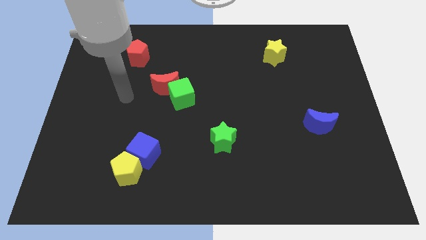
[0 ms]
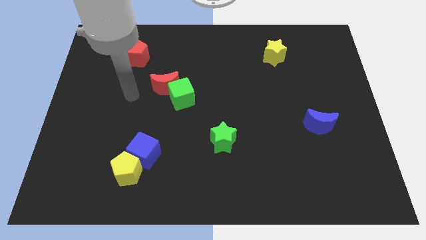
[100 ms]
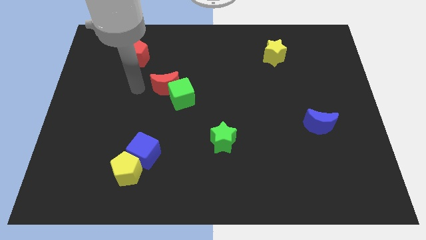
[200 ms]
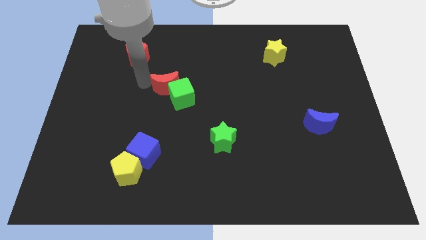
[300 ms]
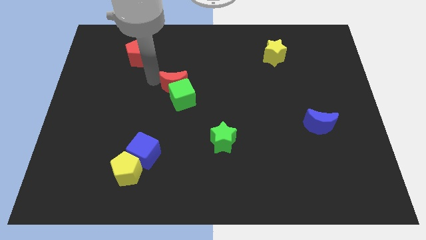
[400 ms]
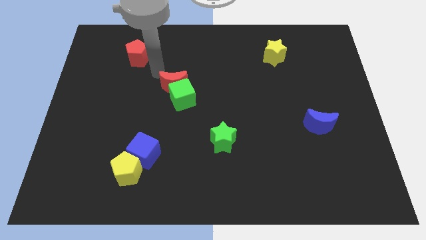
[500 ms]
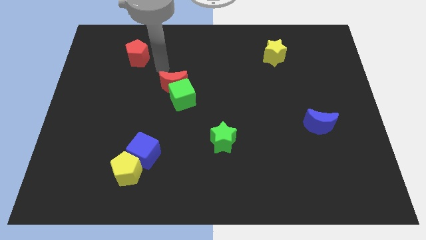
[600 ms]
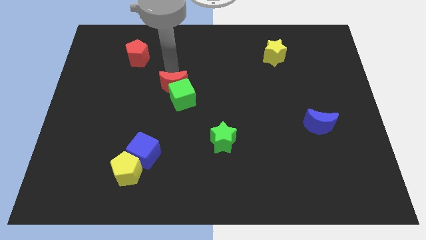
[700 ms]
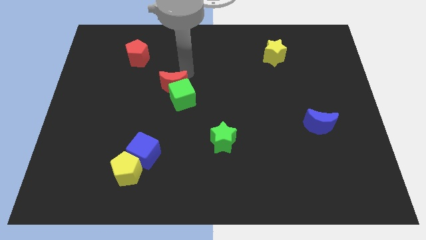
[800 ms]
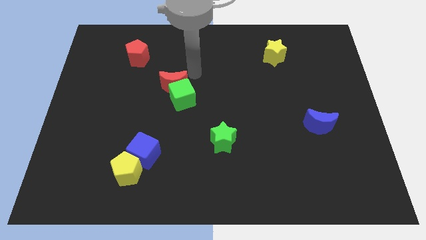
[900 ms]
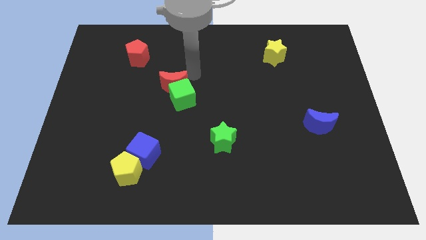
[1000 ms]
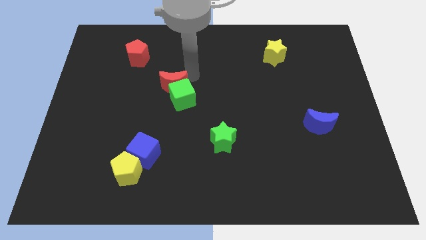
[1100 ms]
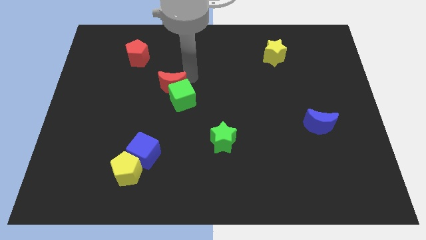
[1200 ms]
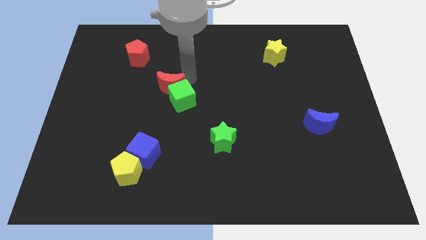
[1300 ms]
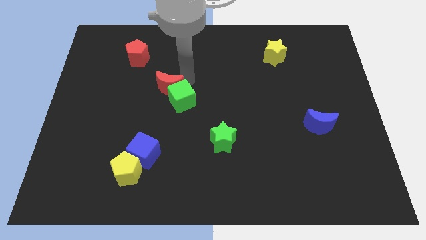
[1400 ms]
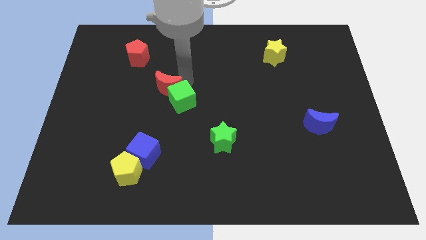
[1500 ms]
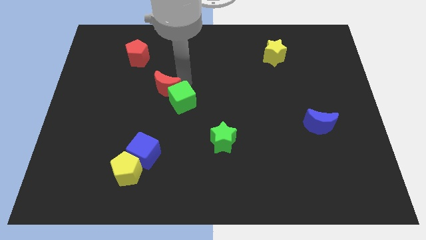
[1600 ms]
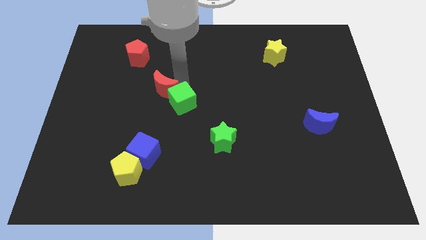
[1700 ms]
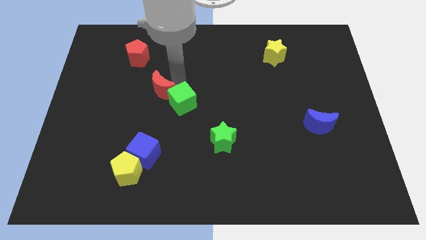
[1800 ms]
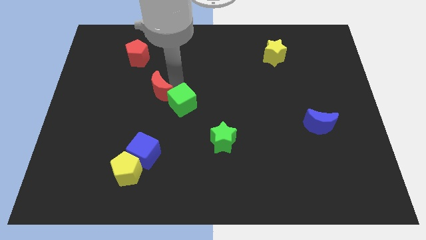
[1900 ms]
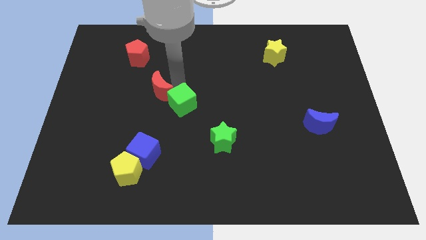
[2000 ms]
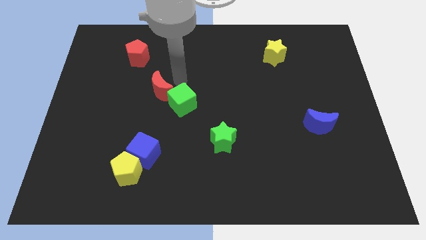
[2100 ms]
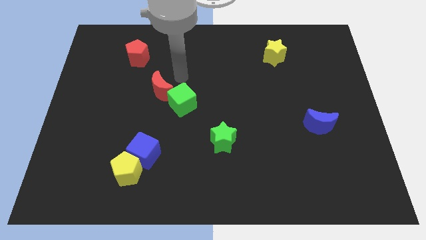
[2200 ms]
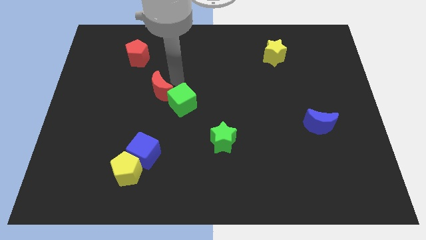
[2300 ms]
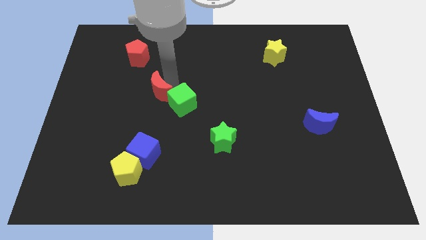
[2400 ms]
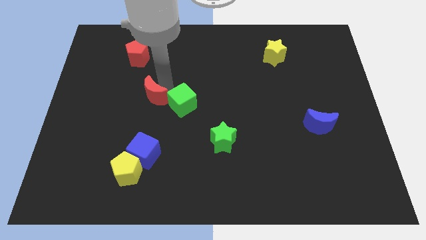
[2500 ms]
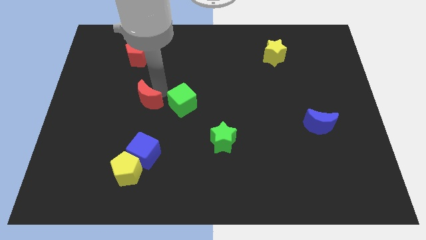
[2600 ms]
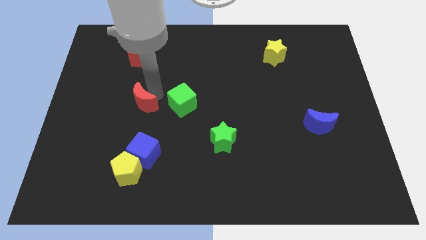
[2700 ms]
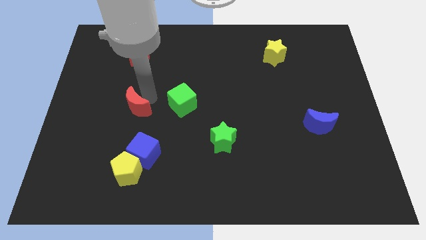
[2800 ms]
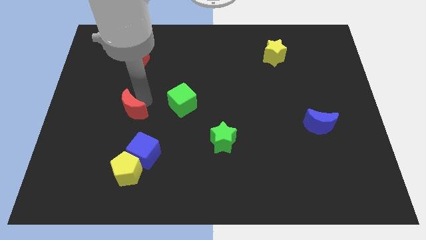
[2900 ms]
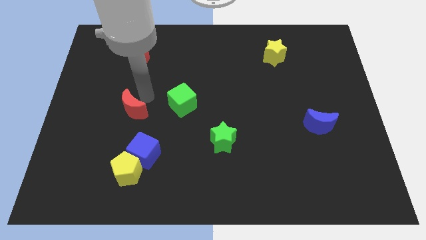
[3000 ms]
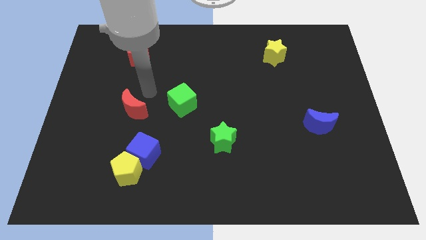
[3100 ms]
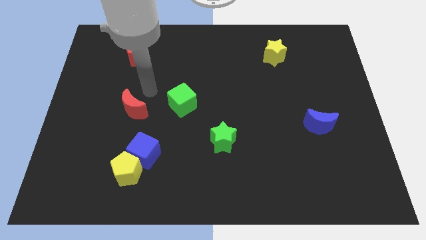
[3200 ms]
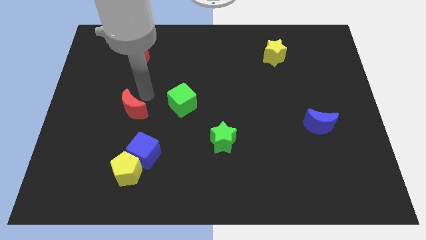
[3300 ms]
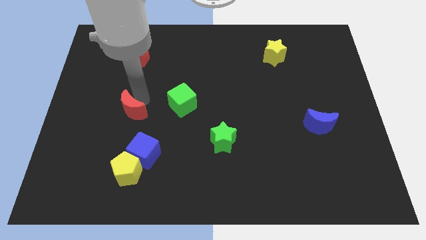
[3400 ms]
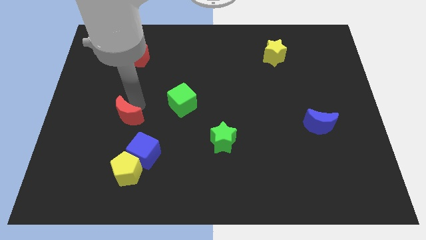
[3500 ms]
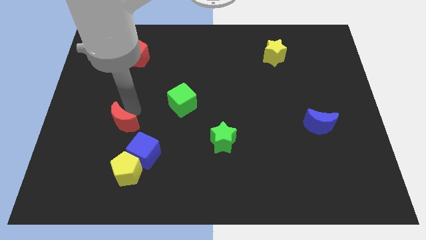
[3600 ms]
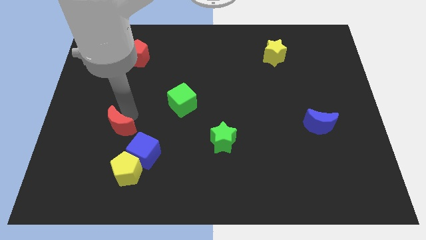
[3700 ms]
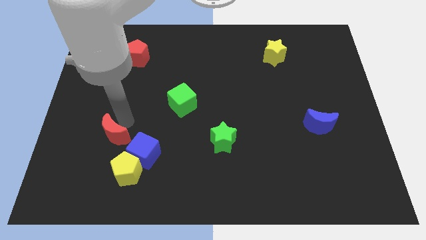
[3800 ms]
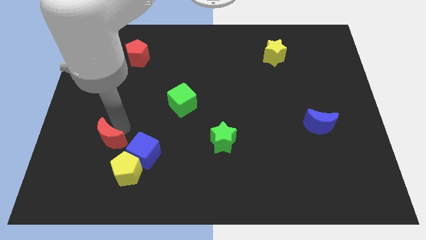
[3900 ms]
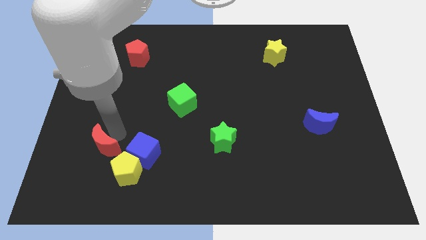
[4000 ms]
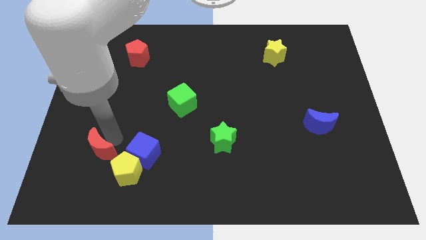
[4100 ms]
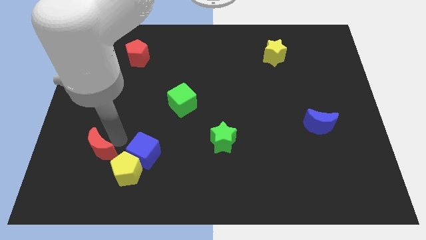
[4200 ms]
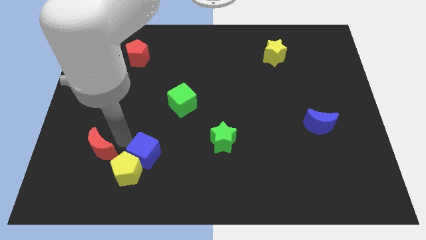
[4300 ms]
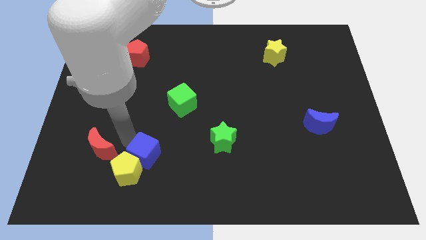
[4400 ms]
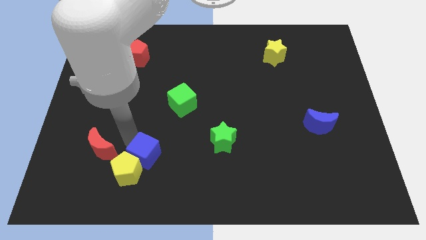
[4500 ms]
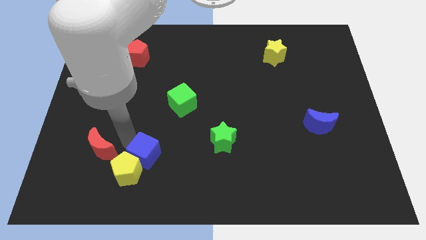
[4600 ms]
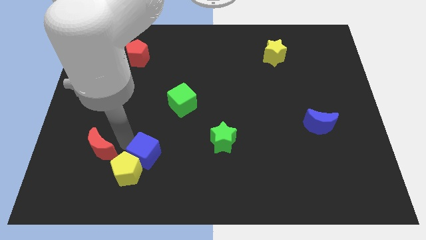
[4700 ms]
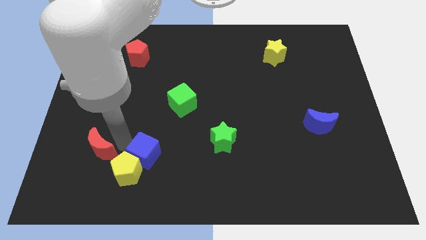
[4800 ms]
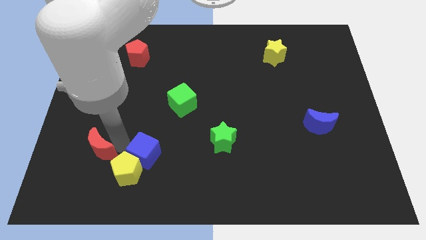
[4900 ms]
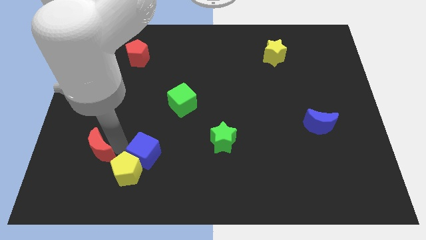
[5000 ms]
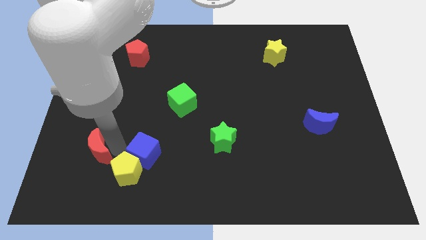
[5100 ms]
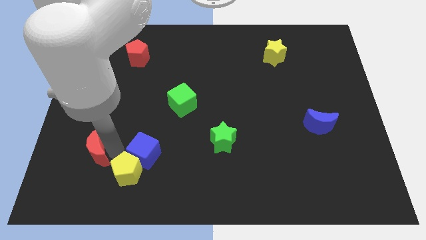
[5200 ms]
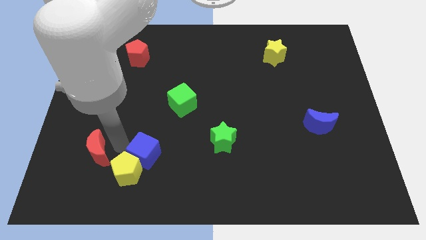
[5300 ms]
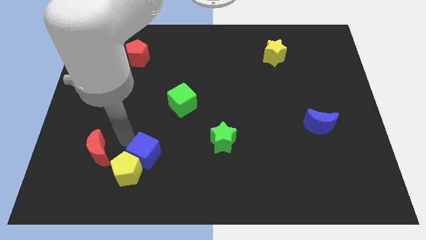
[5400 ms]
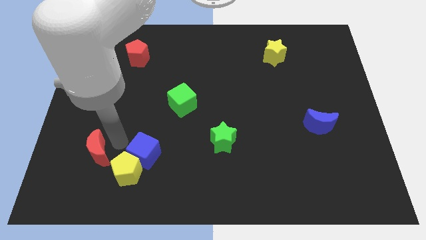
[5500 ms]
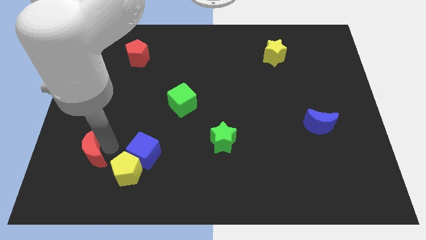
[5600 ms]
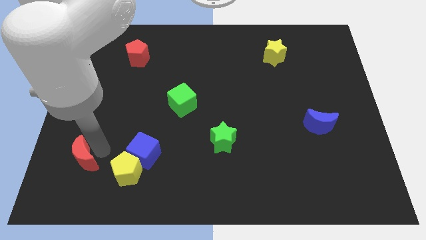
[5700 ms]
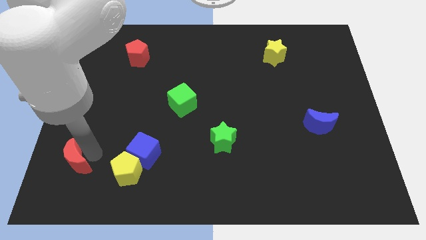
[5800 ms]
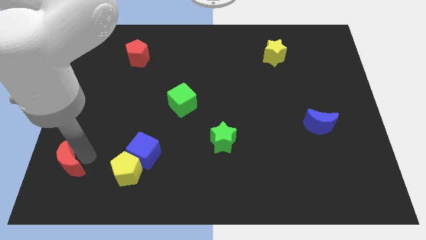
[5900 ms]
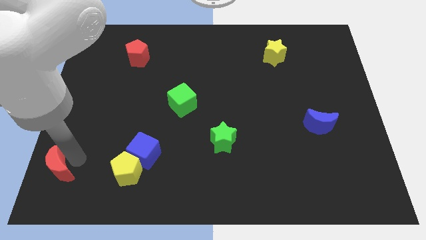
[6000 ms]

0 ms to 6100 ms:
push the red moon to the bottom left
